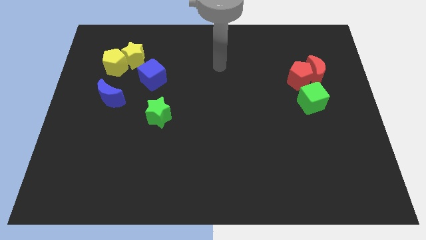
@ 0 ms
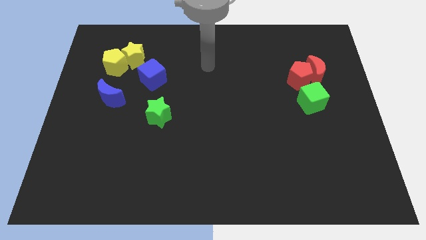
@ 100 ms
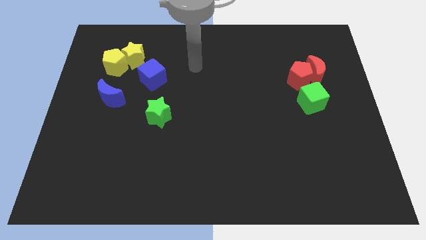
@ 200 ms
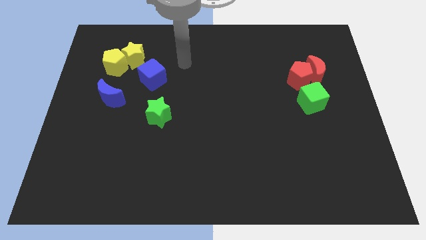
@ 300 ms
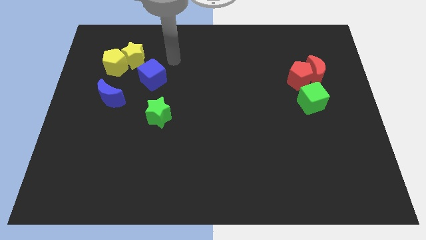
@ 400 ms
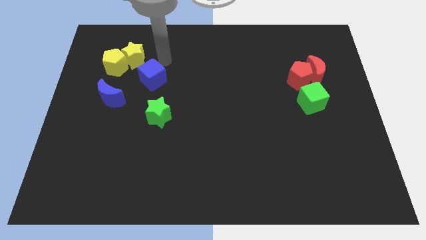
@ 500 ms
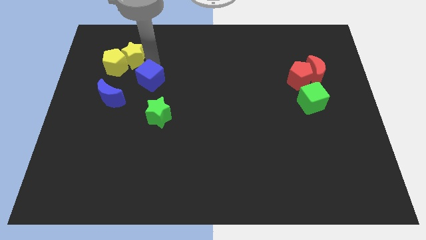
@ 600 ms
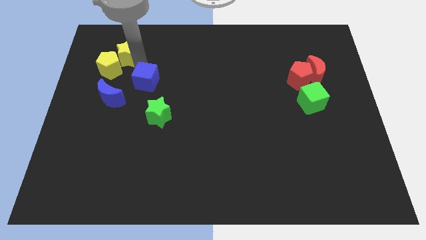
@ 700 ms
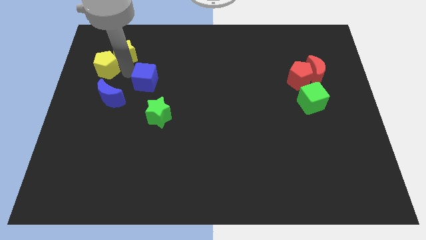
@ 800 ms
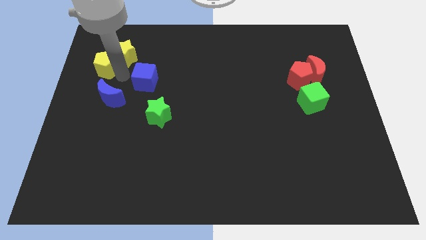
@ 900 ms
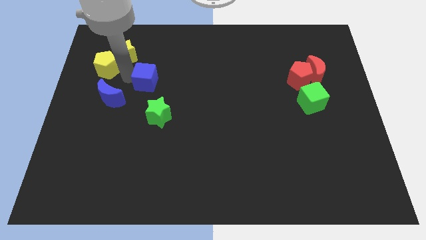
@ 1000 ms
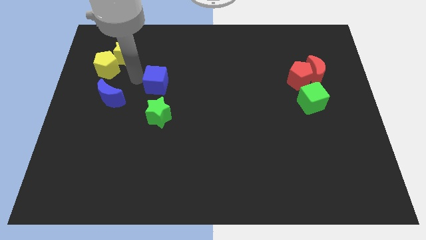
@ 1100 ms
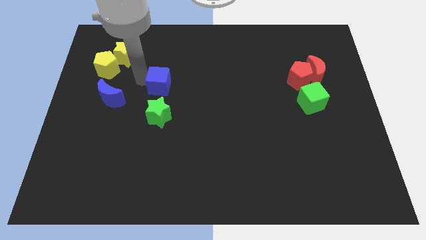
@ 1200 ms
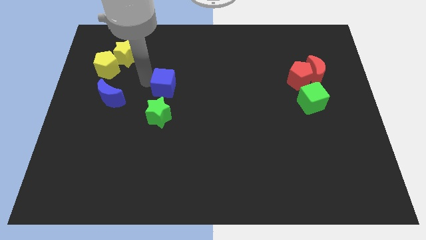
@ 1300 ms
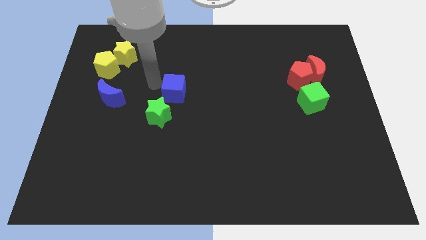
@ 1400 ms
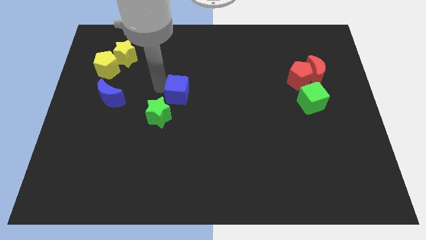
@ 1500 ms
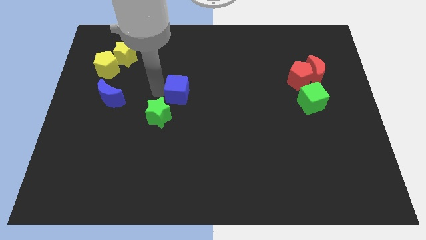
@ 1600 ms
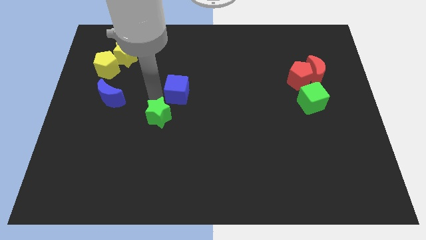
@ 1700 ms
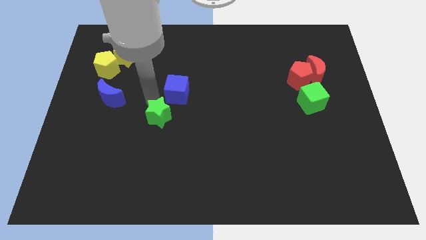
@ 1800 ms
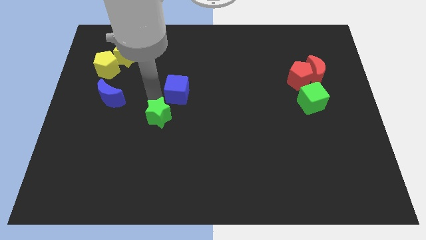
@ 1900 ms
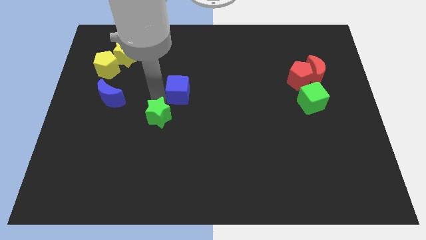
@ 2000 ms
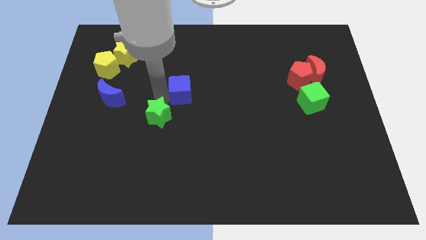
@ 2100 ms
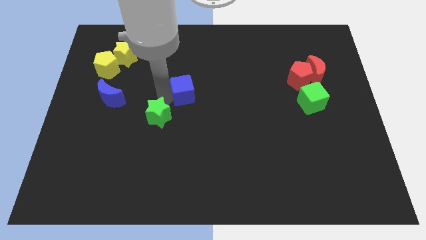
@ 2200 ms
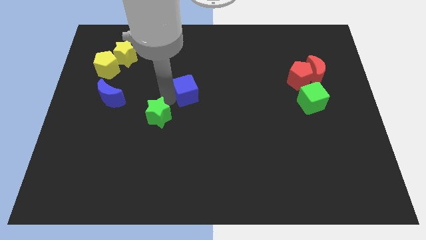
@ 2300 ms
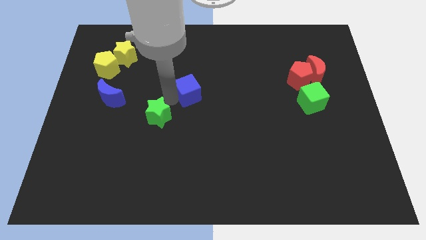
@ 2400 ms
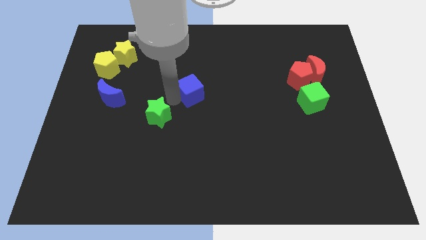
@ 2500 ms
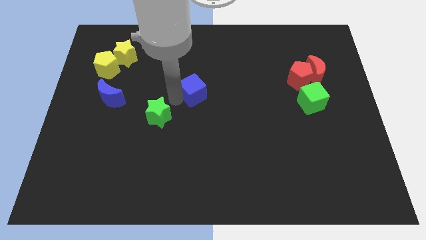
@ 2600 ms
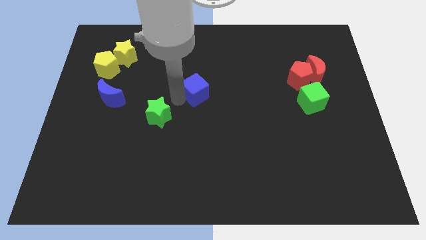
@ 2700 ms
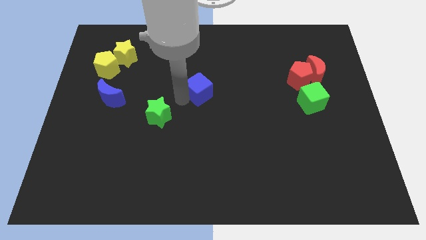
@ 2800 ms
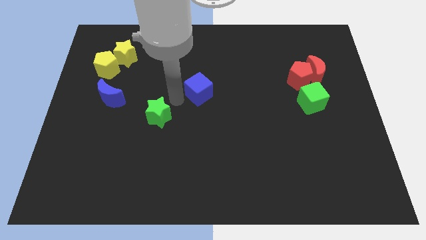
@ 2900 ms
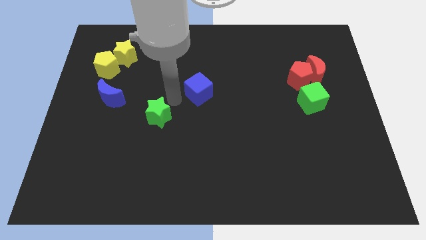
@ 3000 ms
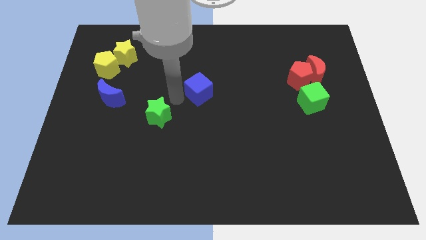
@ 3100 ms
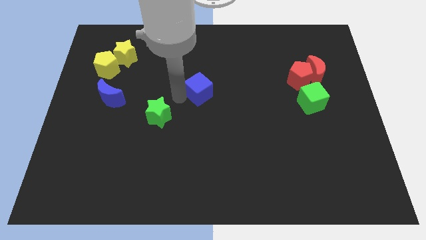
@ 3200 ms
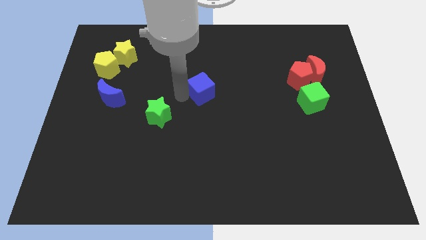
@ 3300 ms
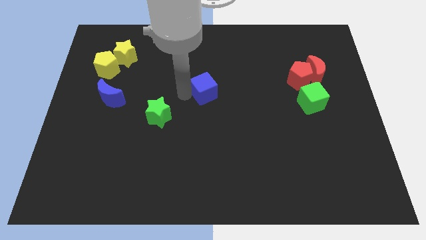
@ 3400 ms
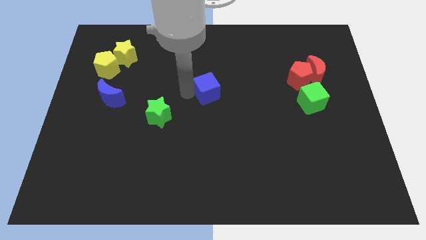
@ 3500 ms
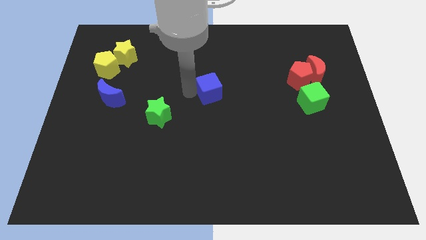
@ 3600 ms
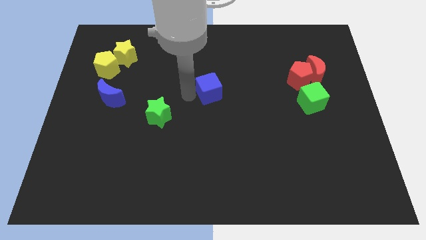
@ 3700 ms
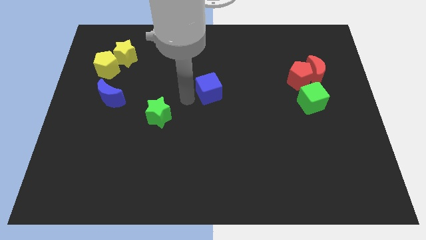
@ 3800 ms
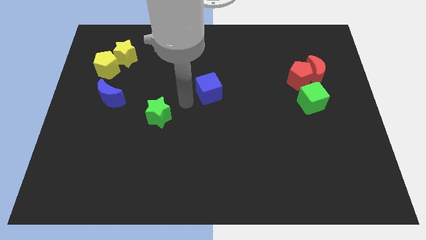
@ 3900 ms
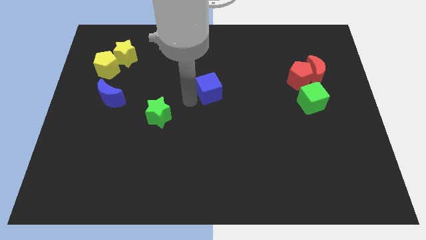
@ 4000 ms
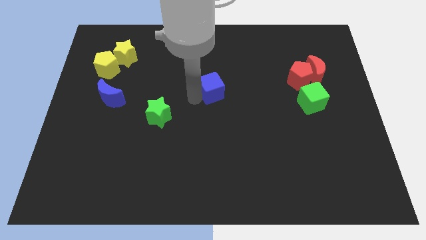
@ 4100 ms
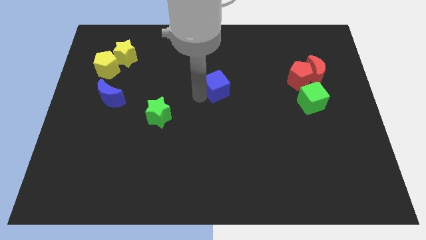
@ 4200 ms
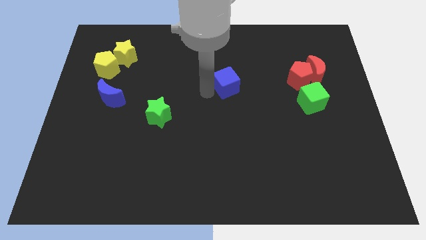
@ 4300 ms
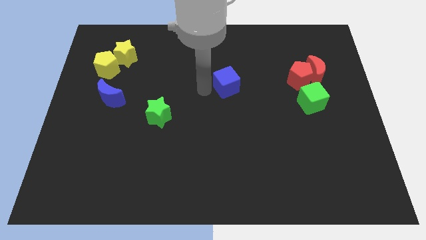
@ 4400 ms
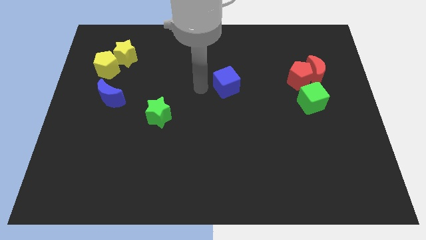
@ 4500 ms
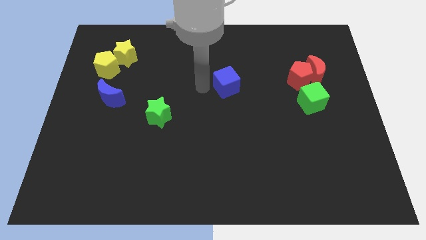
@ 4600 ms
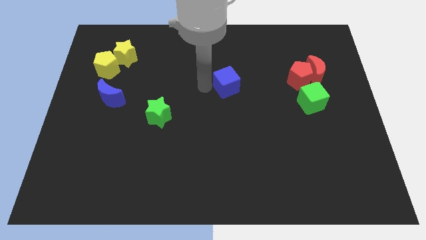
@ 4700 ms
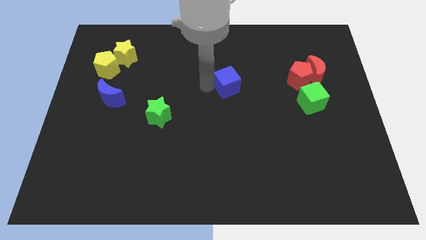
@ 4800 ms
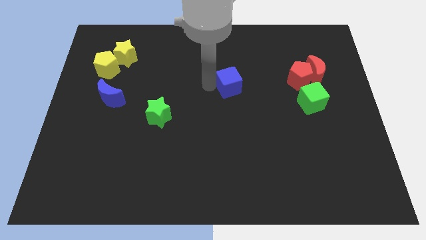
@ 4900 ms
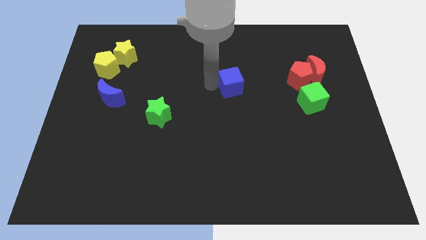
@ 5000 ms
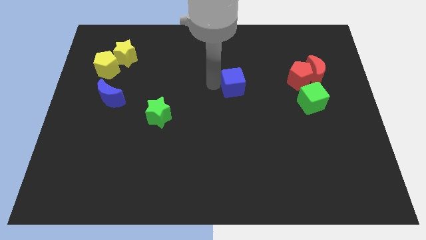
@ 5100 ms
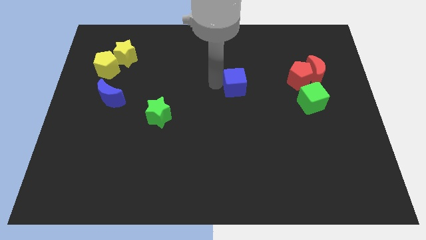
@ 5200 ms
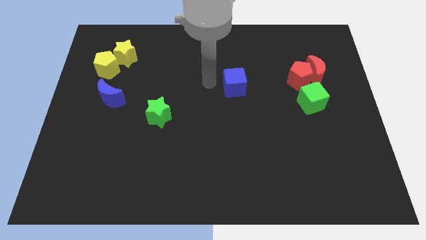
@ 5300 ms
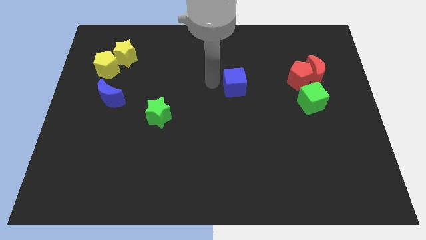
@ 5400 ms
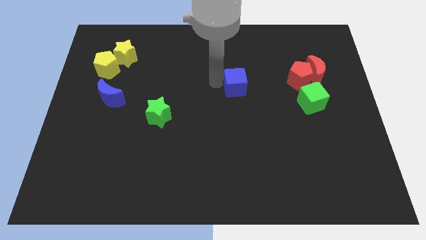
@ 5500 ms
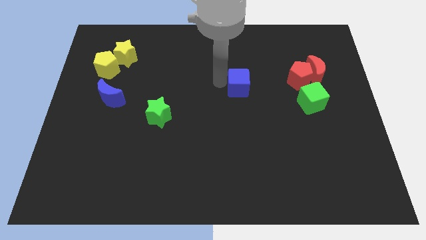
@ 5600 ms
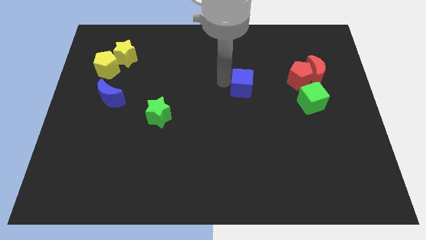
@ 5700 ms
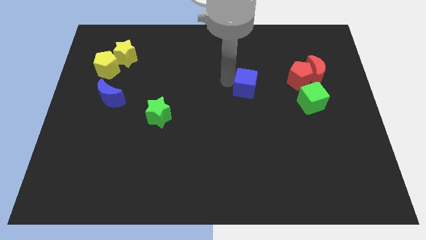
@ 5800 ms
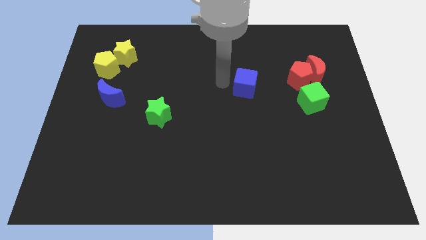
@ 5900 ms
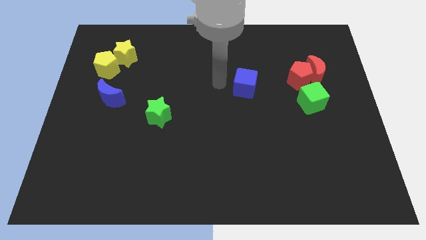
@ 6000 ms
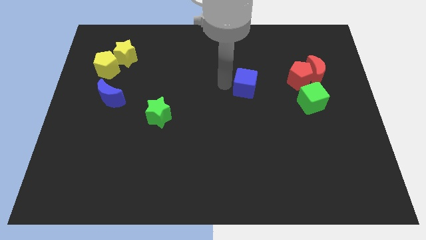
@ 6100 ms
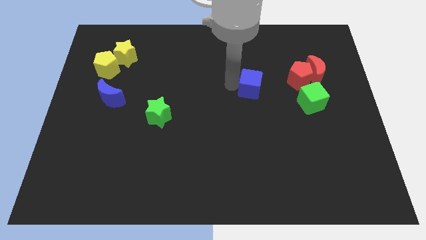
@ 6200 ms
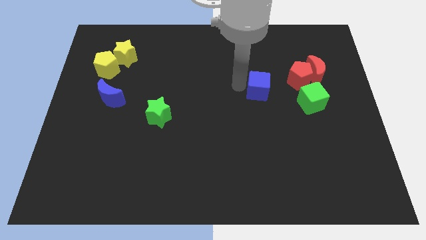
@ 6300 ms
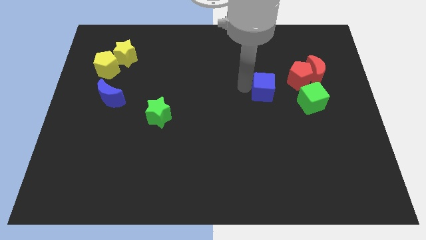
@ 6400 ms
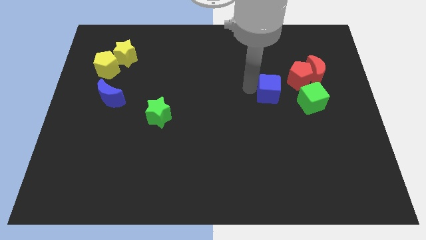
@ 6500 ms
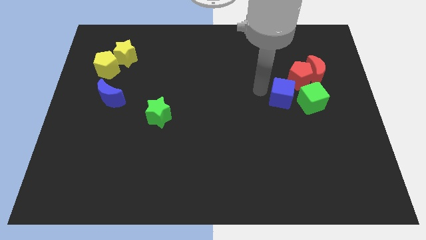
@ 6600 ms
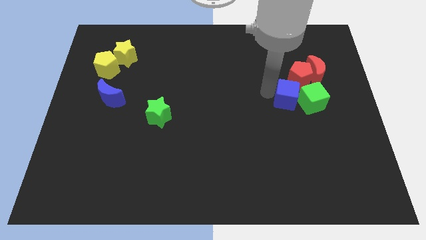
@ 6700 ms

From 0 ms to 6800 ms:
push the blue cube close to the green cube
